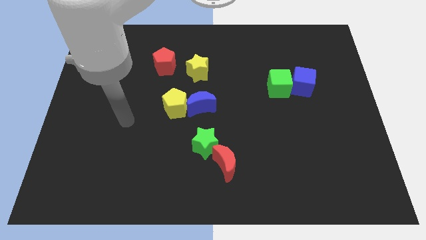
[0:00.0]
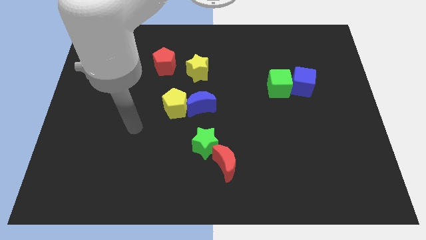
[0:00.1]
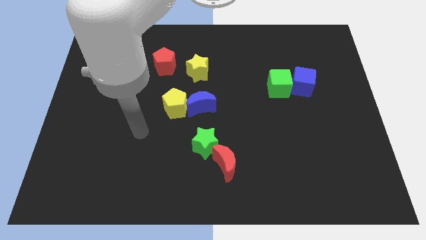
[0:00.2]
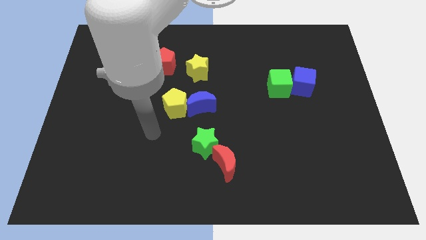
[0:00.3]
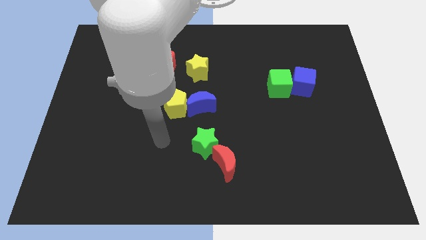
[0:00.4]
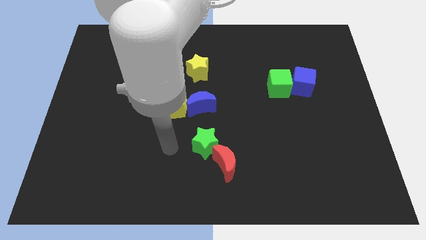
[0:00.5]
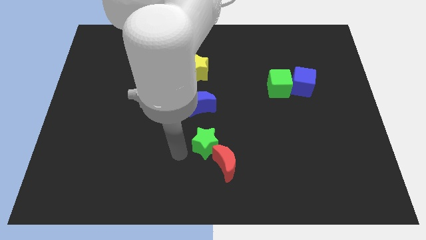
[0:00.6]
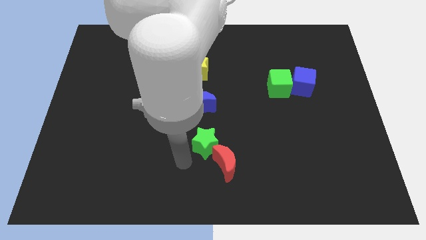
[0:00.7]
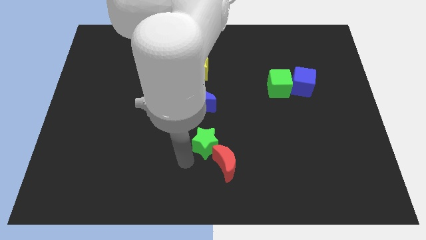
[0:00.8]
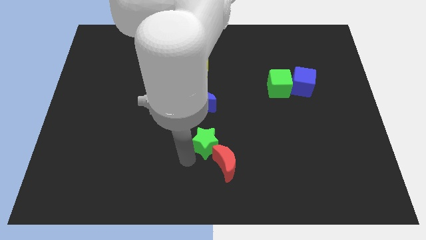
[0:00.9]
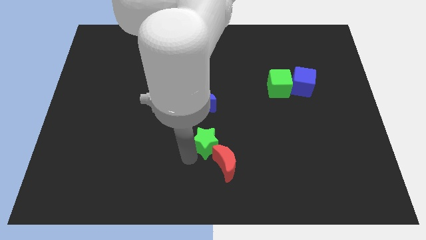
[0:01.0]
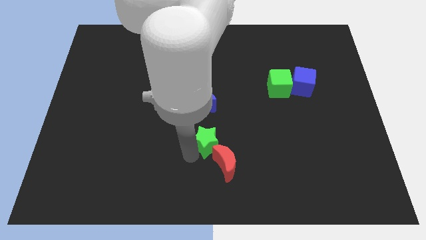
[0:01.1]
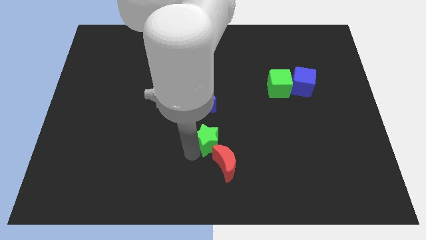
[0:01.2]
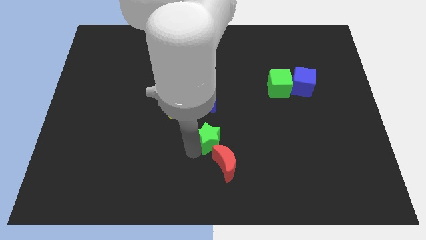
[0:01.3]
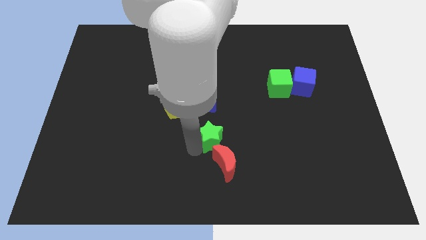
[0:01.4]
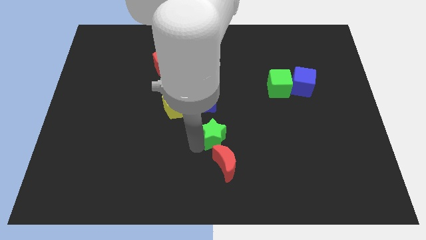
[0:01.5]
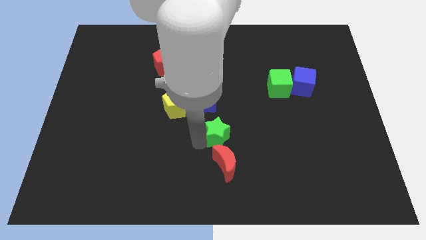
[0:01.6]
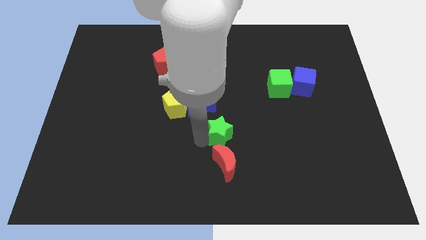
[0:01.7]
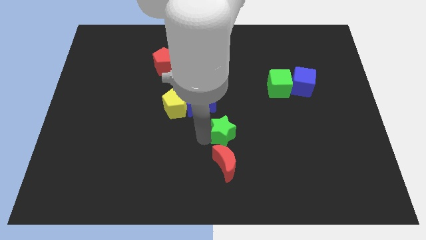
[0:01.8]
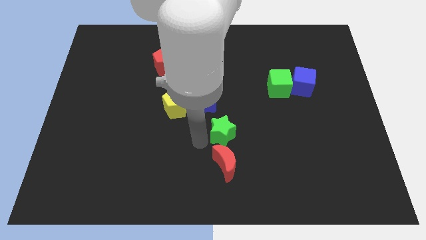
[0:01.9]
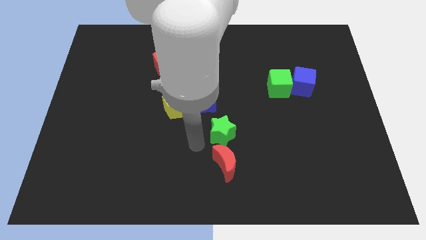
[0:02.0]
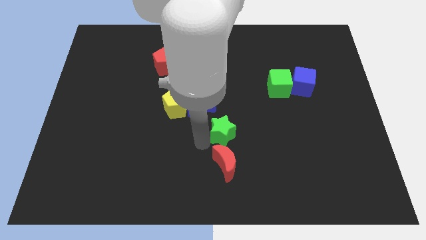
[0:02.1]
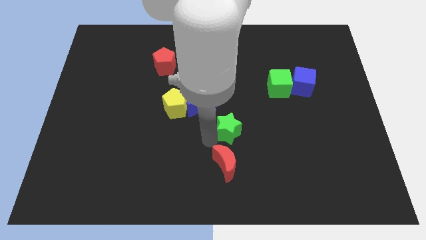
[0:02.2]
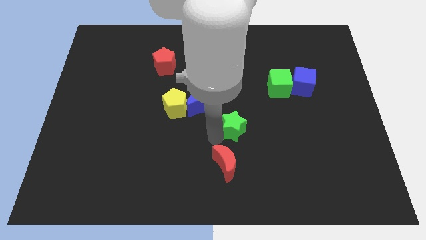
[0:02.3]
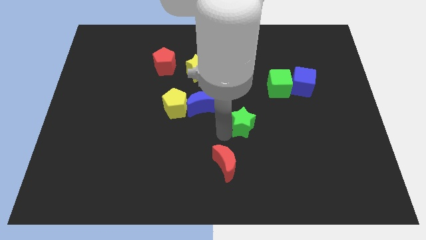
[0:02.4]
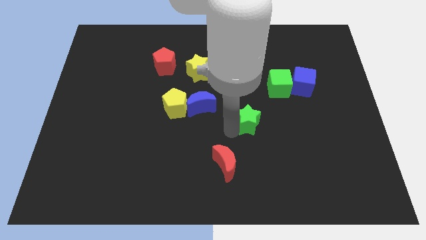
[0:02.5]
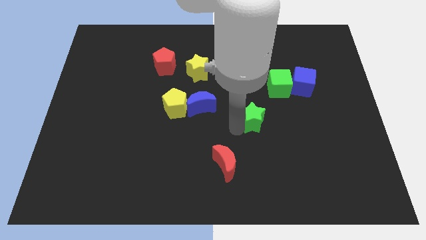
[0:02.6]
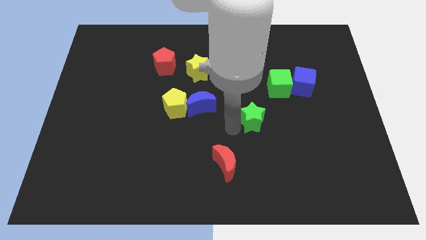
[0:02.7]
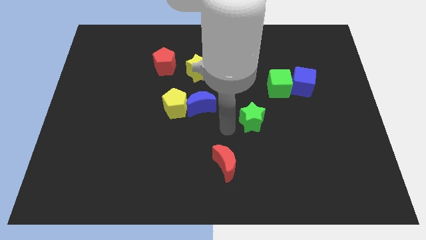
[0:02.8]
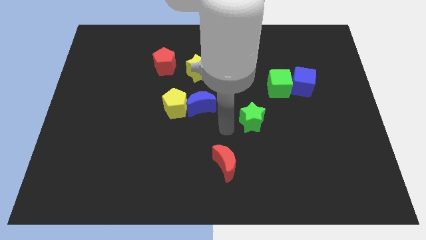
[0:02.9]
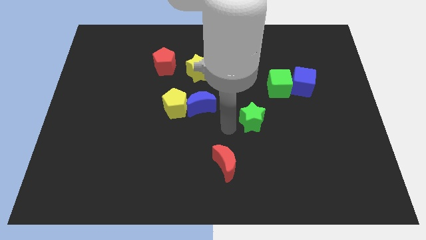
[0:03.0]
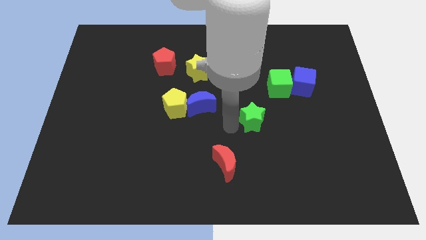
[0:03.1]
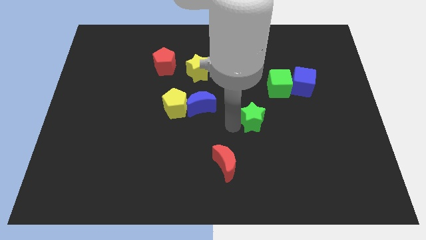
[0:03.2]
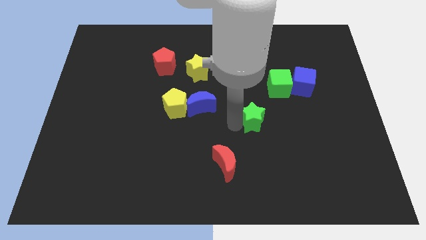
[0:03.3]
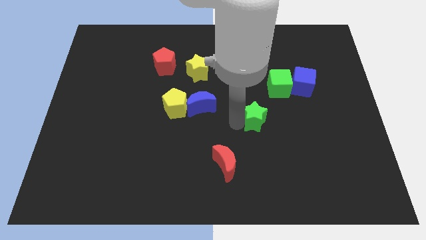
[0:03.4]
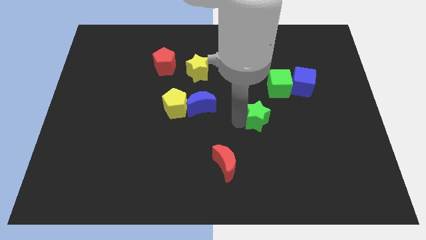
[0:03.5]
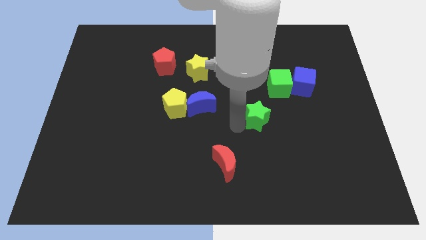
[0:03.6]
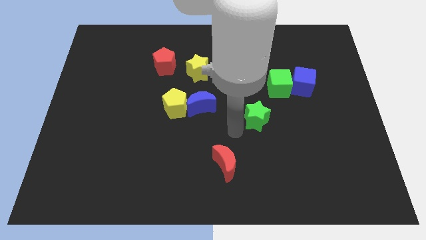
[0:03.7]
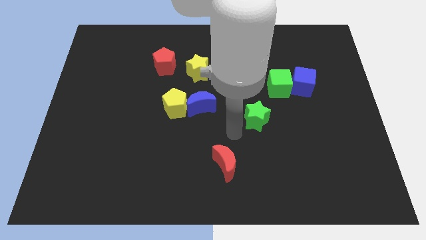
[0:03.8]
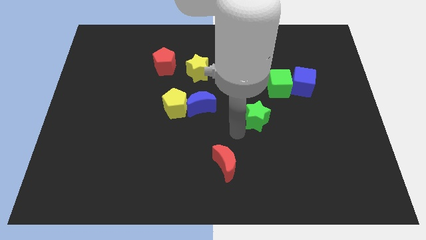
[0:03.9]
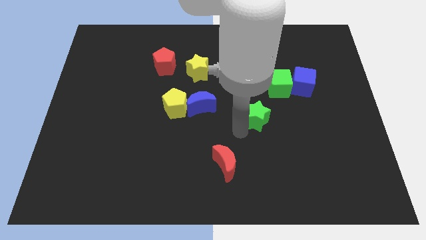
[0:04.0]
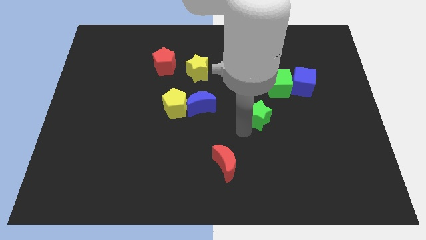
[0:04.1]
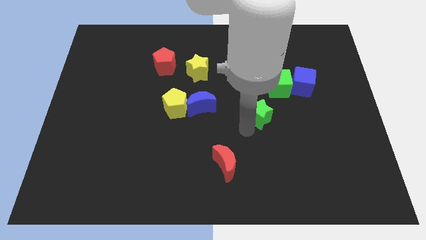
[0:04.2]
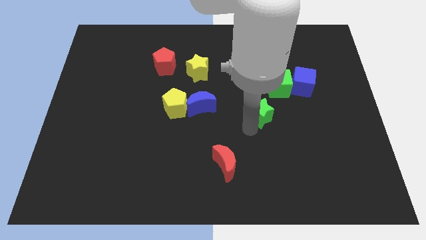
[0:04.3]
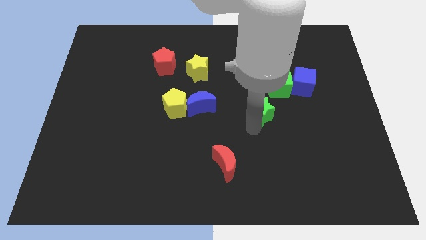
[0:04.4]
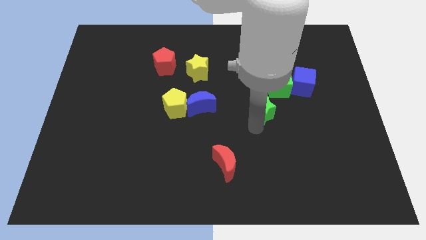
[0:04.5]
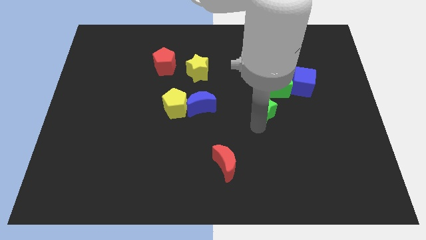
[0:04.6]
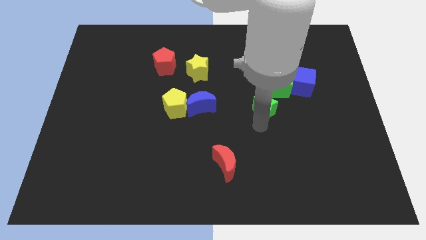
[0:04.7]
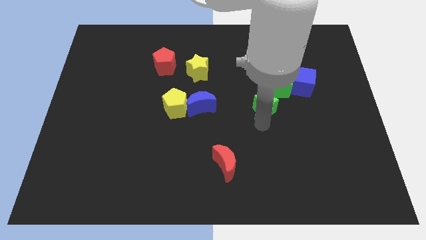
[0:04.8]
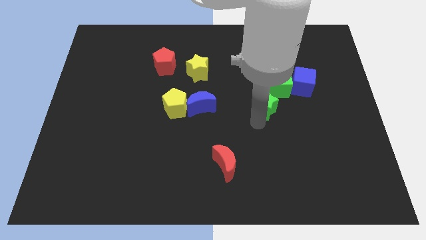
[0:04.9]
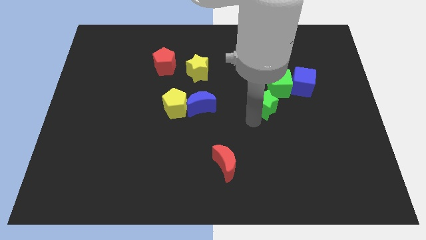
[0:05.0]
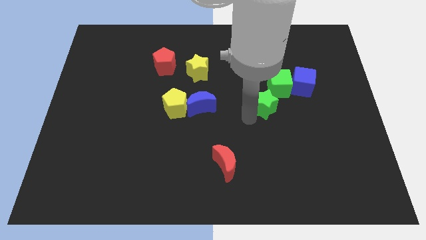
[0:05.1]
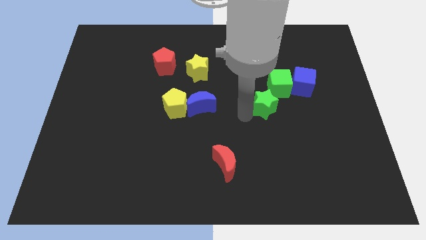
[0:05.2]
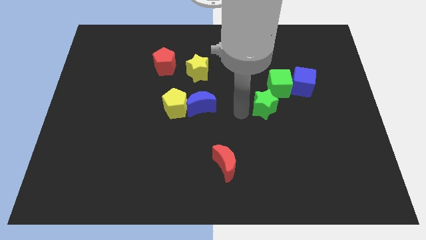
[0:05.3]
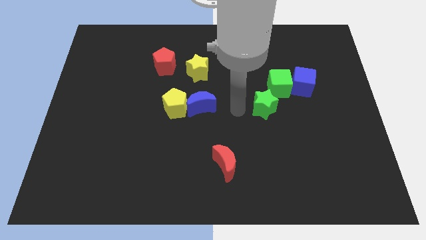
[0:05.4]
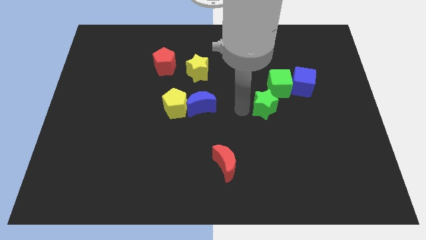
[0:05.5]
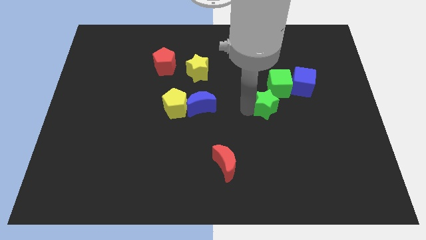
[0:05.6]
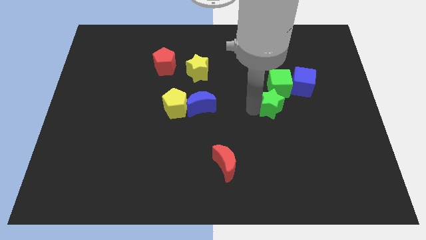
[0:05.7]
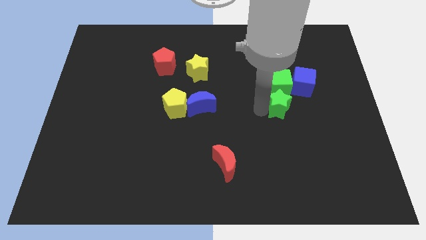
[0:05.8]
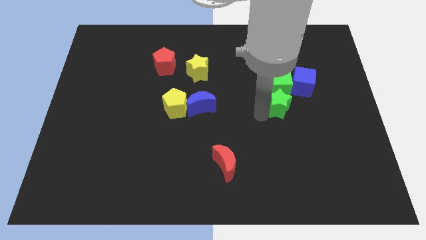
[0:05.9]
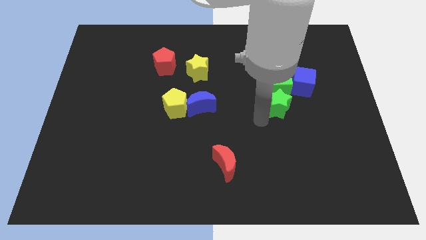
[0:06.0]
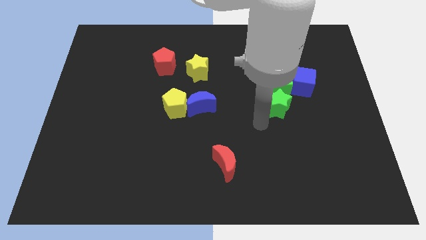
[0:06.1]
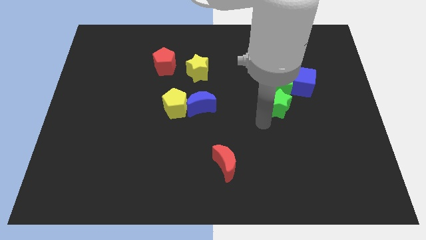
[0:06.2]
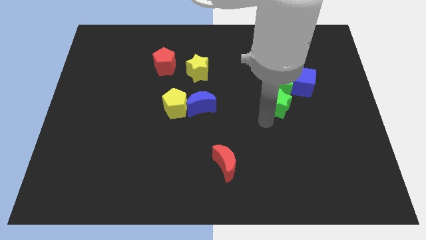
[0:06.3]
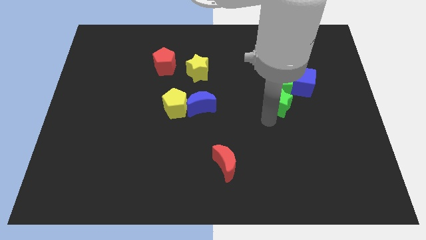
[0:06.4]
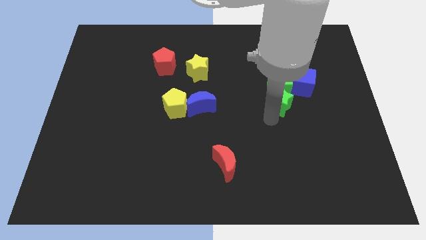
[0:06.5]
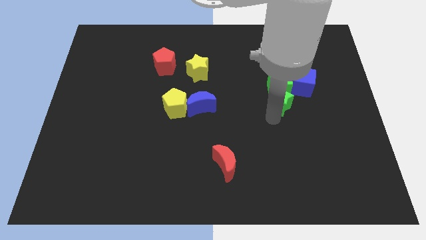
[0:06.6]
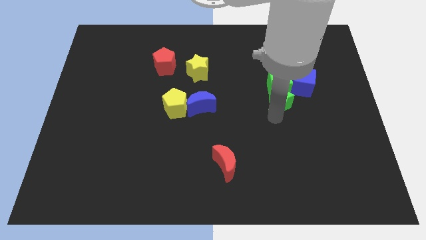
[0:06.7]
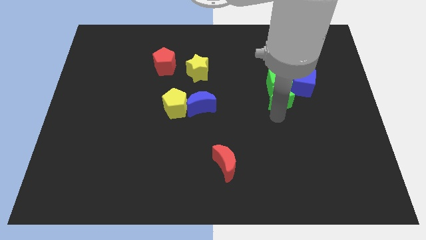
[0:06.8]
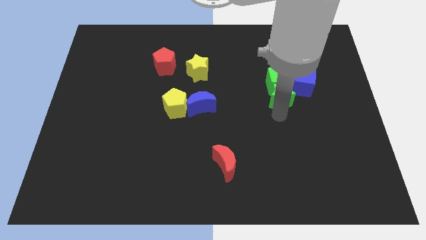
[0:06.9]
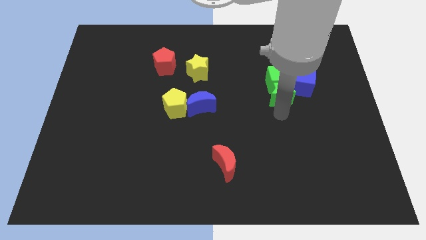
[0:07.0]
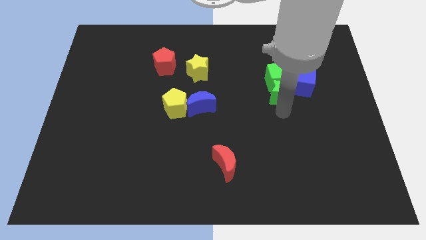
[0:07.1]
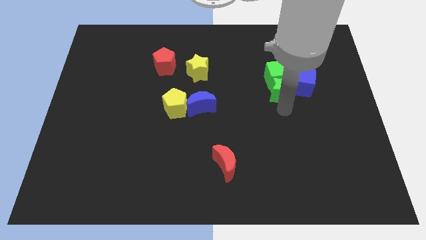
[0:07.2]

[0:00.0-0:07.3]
put the green star towards the blue cube
